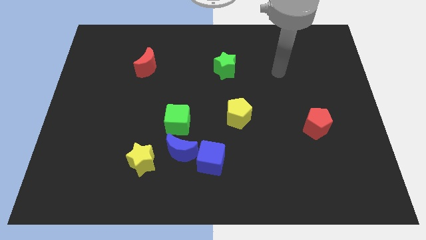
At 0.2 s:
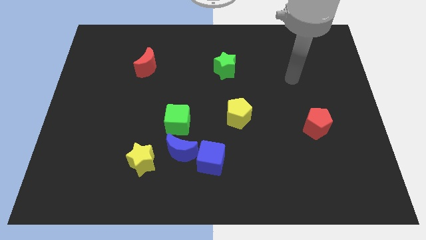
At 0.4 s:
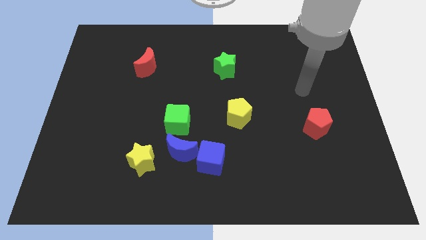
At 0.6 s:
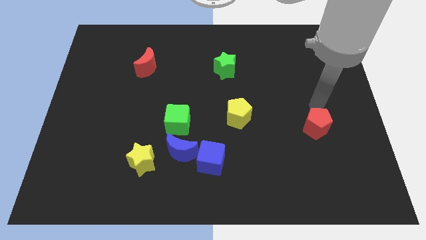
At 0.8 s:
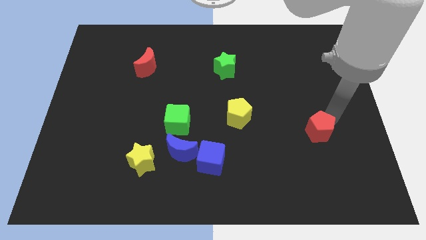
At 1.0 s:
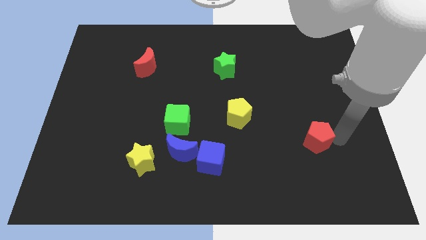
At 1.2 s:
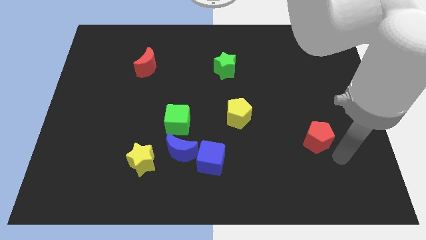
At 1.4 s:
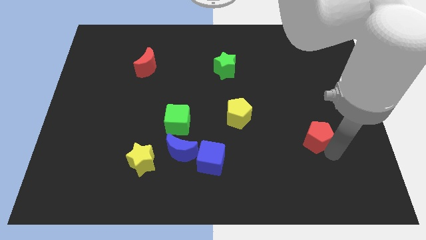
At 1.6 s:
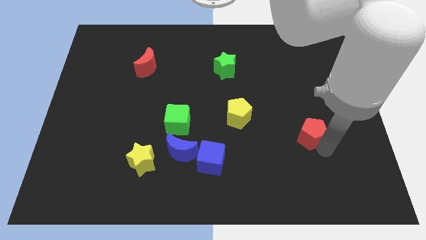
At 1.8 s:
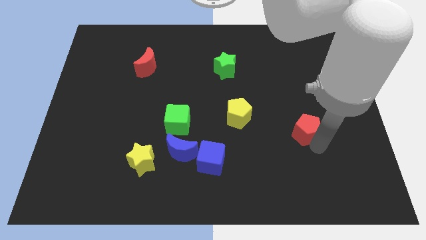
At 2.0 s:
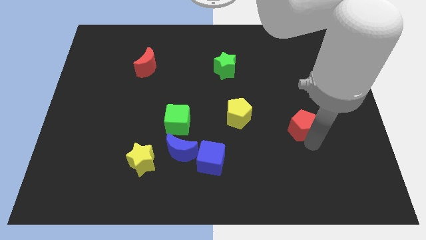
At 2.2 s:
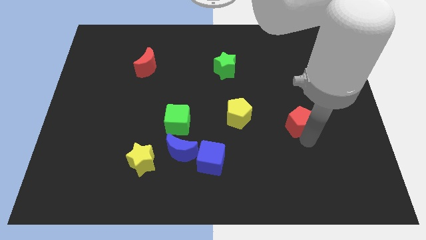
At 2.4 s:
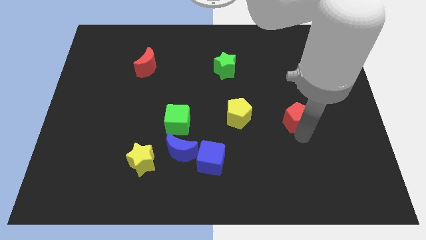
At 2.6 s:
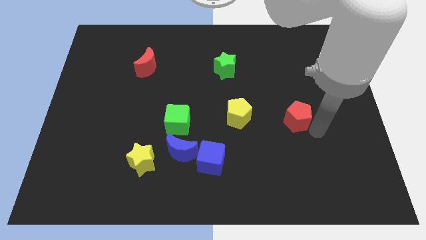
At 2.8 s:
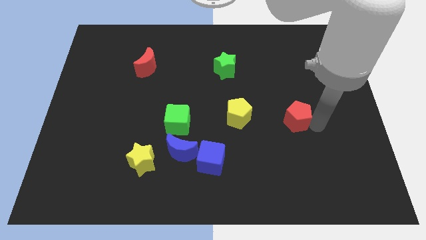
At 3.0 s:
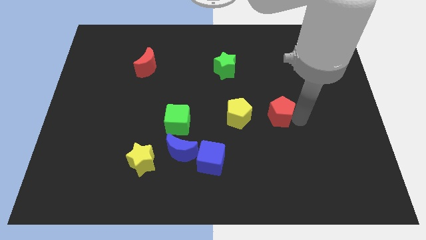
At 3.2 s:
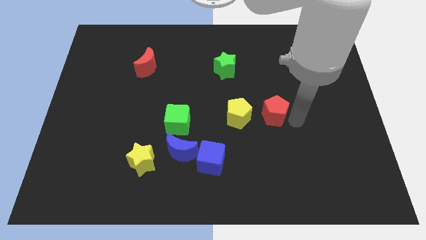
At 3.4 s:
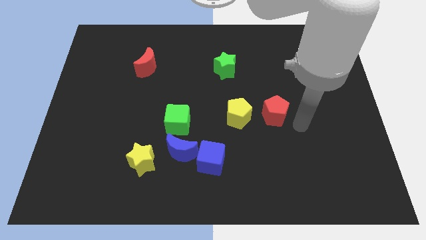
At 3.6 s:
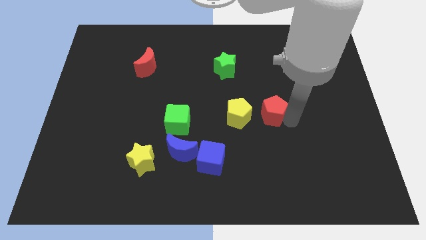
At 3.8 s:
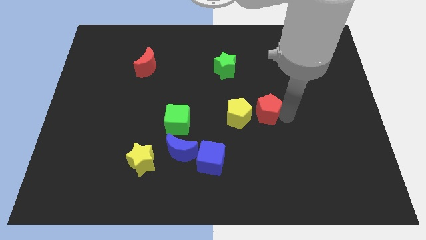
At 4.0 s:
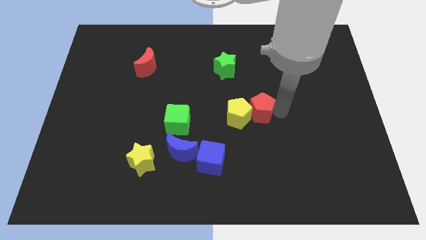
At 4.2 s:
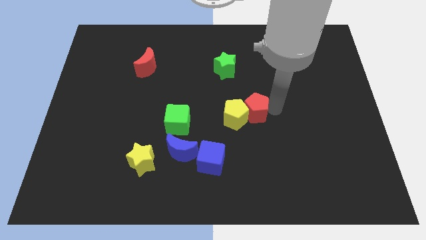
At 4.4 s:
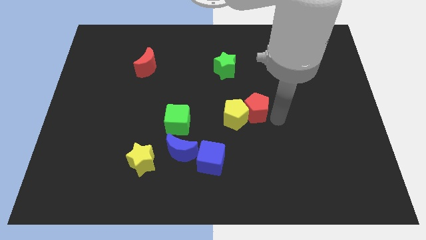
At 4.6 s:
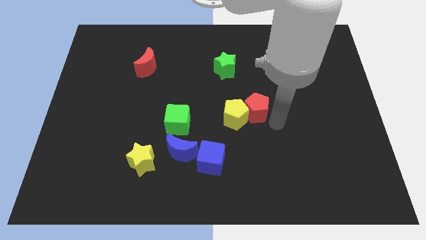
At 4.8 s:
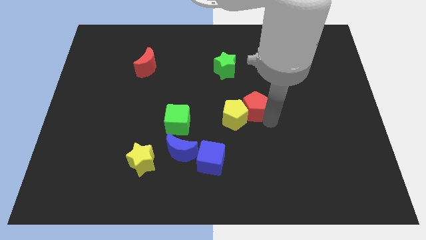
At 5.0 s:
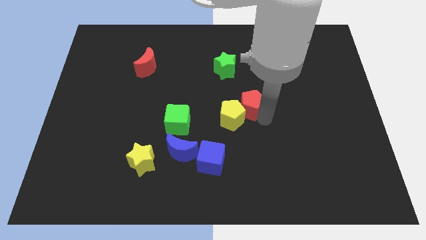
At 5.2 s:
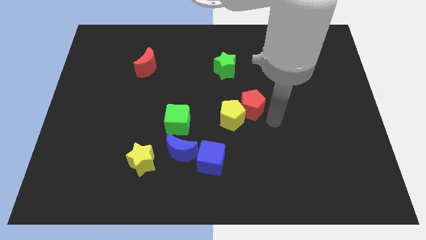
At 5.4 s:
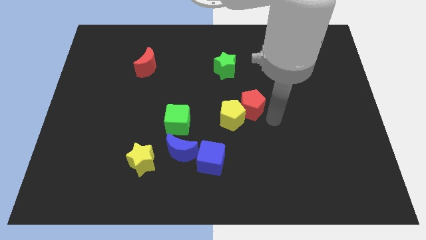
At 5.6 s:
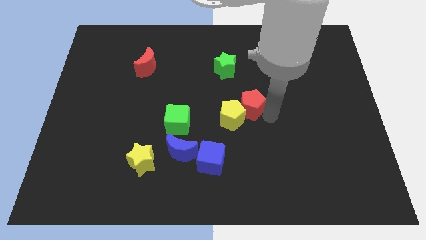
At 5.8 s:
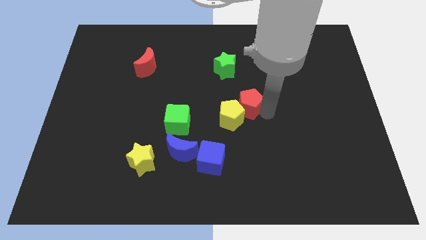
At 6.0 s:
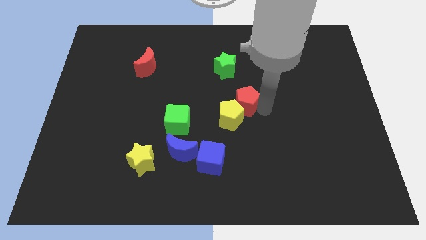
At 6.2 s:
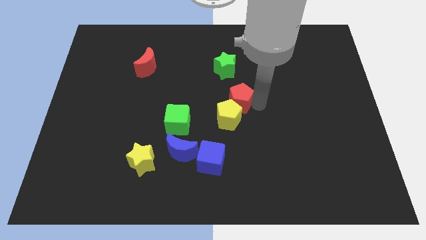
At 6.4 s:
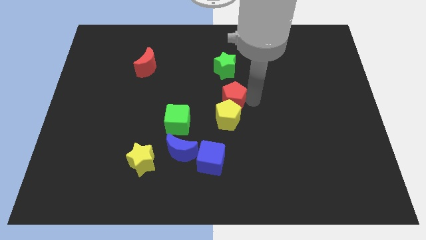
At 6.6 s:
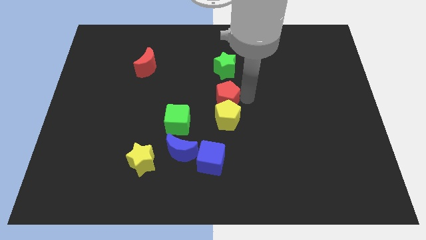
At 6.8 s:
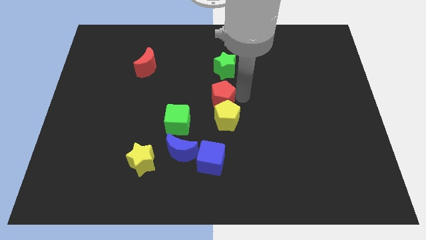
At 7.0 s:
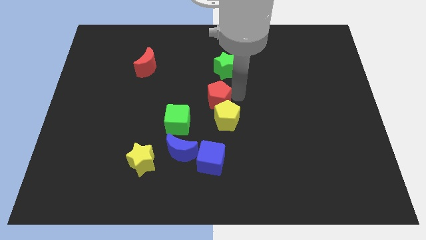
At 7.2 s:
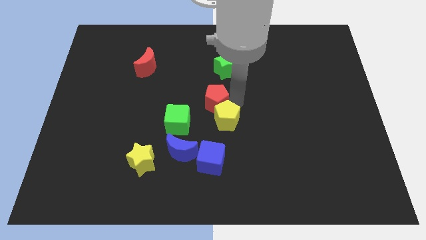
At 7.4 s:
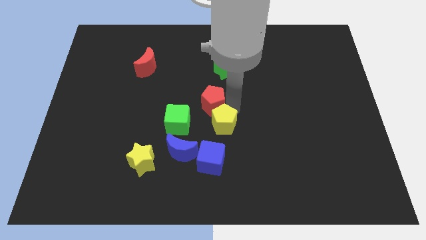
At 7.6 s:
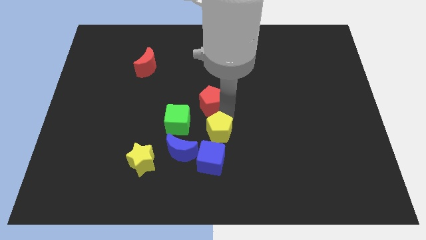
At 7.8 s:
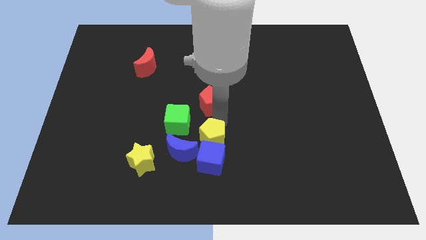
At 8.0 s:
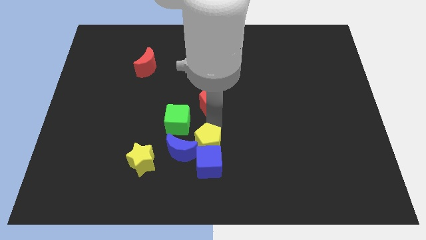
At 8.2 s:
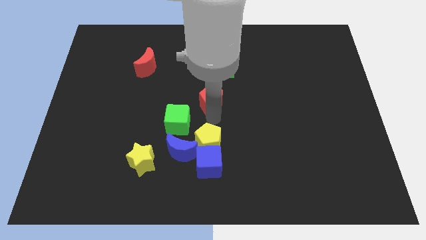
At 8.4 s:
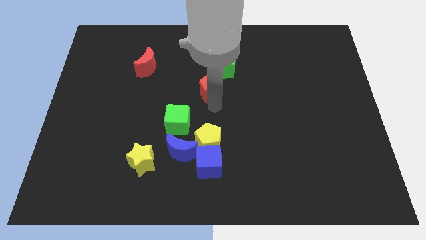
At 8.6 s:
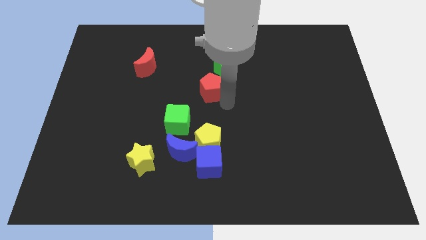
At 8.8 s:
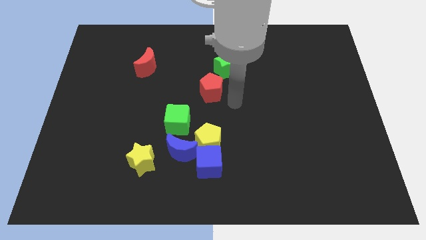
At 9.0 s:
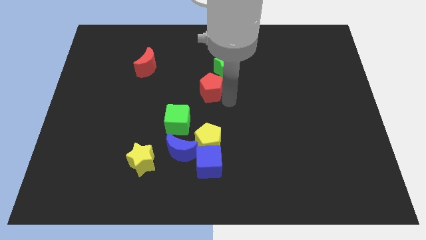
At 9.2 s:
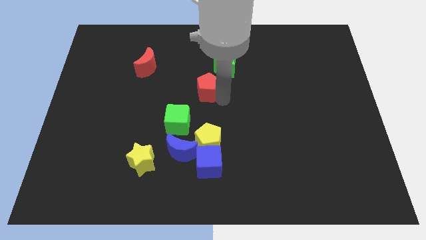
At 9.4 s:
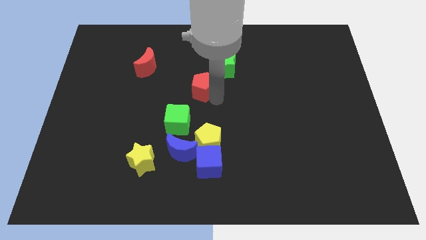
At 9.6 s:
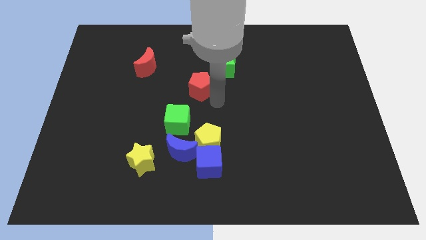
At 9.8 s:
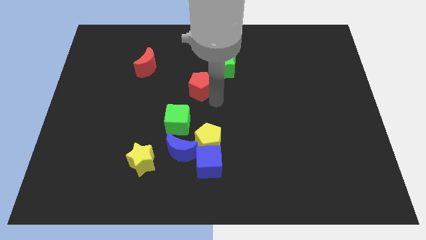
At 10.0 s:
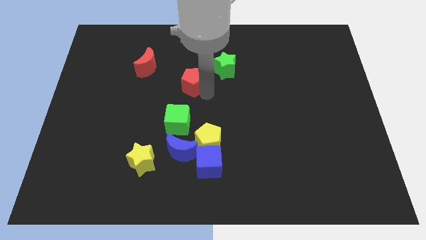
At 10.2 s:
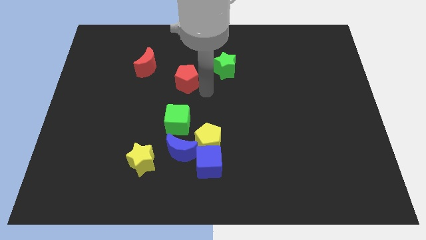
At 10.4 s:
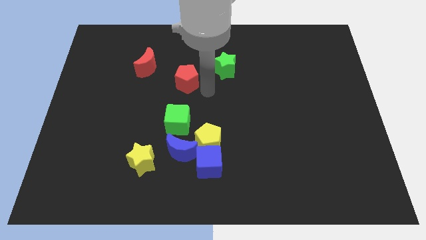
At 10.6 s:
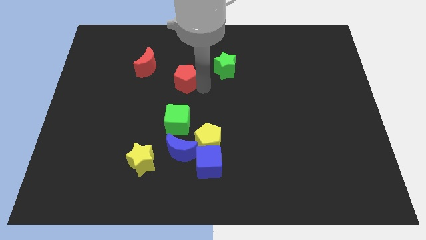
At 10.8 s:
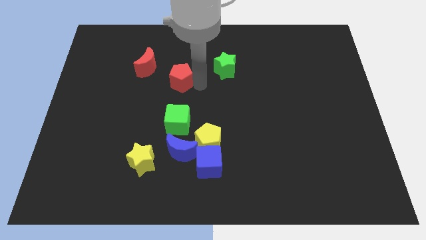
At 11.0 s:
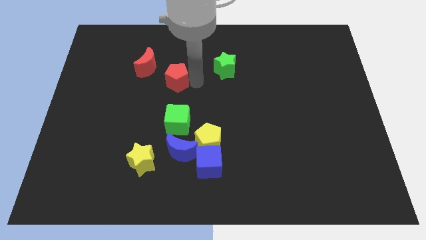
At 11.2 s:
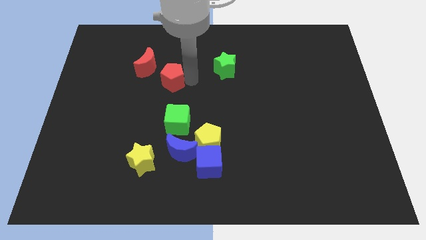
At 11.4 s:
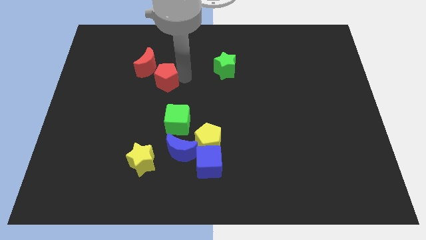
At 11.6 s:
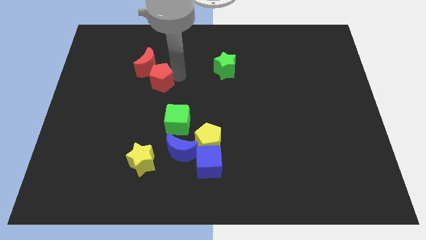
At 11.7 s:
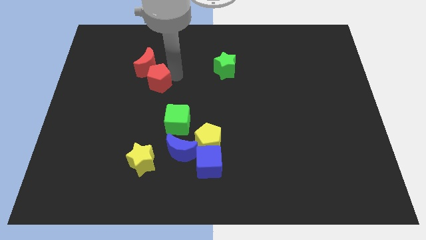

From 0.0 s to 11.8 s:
put the red pentagon close to the red moon

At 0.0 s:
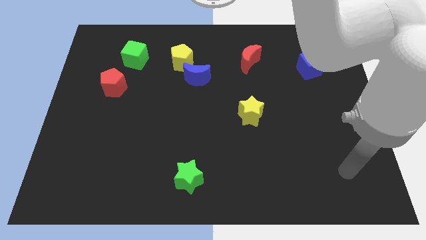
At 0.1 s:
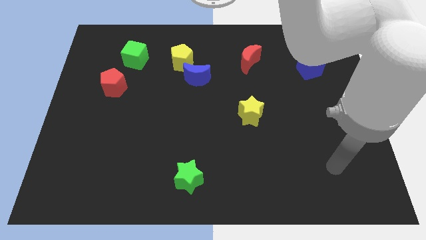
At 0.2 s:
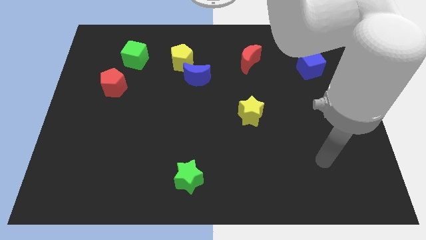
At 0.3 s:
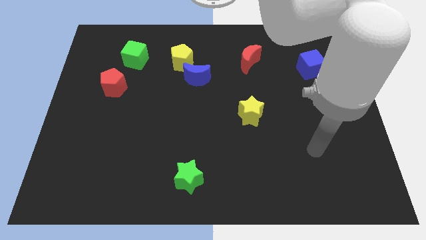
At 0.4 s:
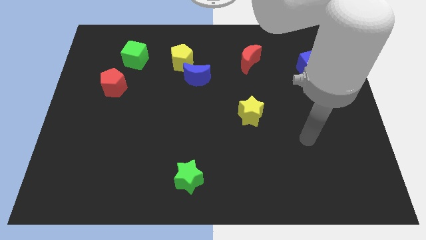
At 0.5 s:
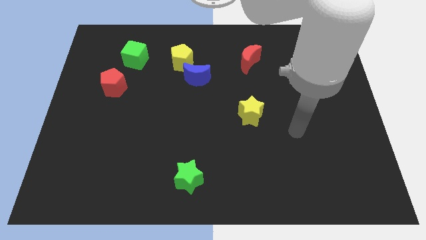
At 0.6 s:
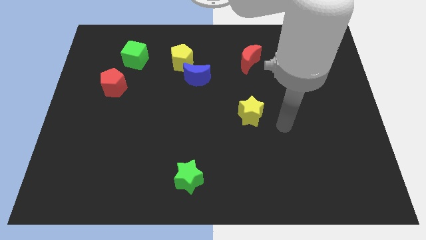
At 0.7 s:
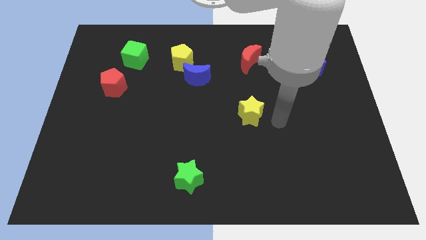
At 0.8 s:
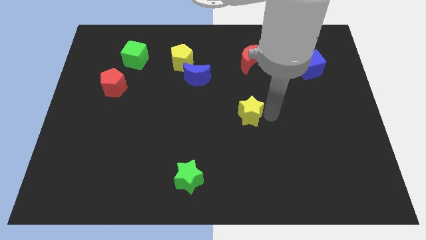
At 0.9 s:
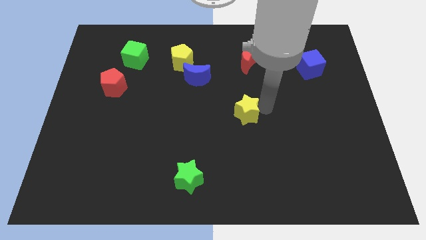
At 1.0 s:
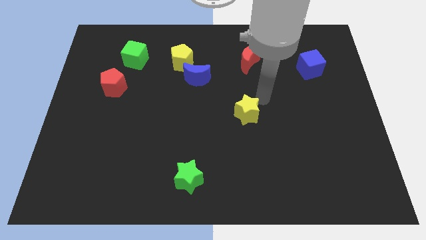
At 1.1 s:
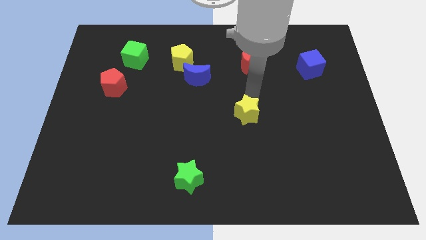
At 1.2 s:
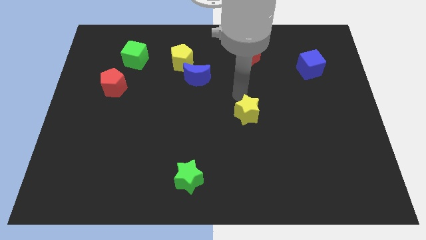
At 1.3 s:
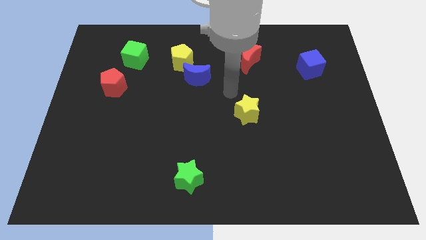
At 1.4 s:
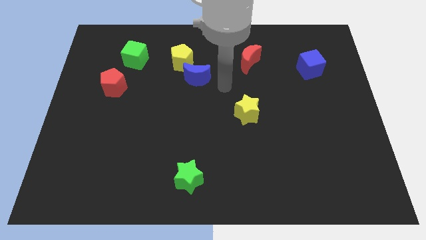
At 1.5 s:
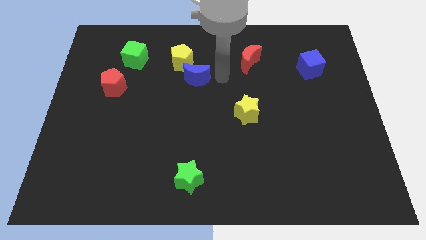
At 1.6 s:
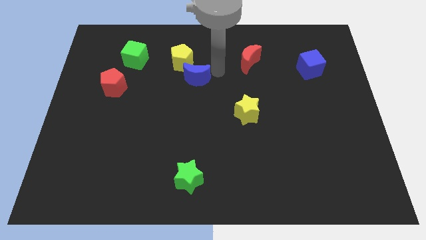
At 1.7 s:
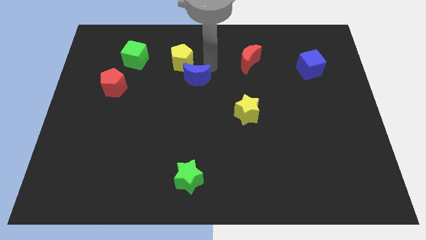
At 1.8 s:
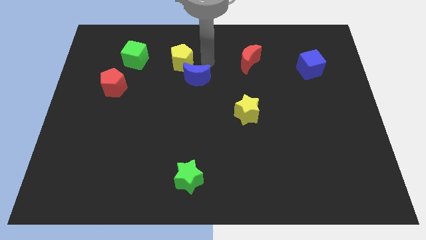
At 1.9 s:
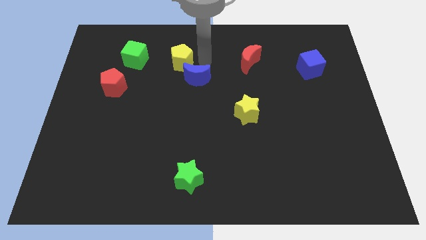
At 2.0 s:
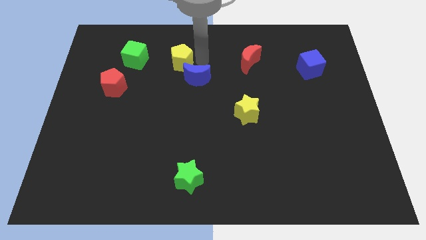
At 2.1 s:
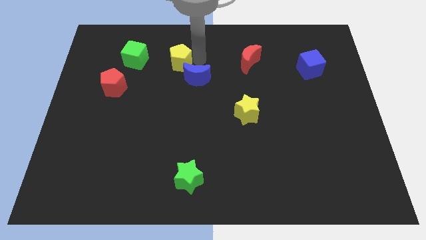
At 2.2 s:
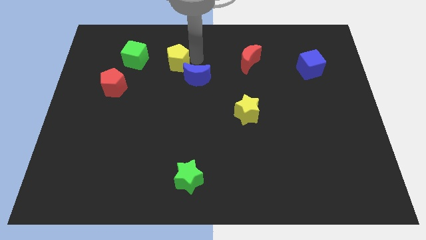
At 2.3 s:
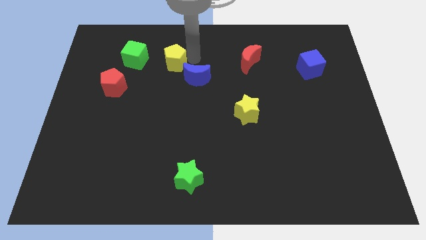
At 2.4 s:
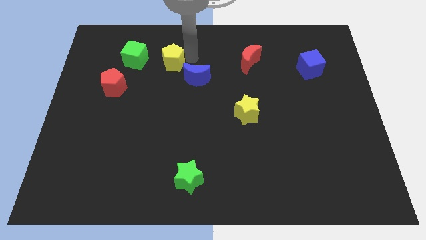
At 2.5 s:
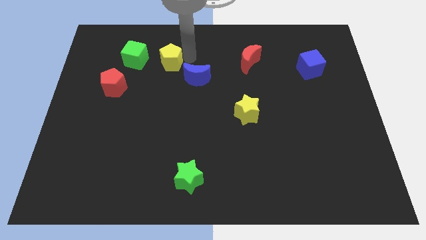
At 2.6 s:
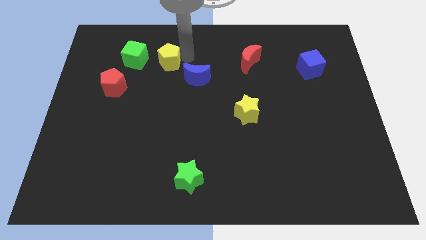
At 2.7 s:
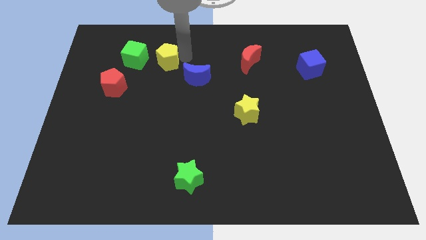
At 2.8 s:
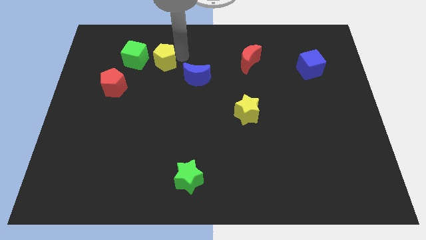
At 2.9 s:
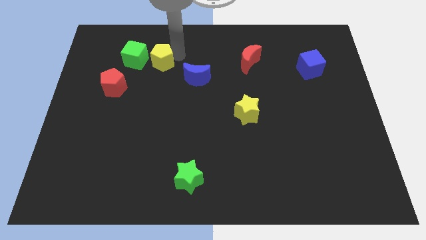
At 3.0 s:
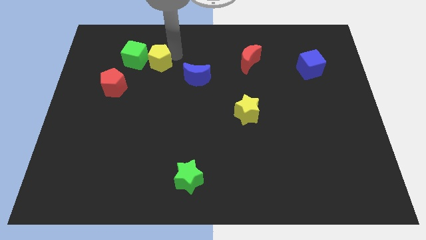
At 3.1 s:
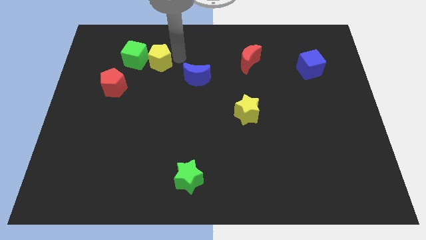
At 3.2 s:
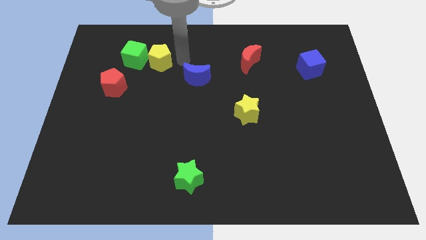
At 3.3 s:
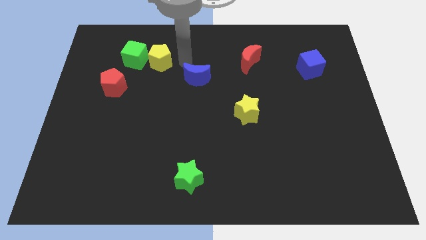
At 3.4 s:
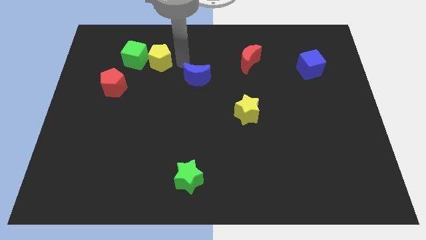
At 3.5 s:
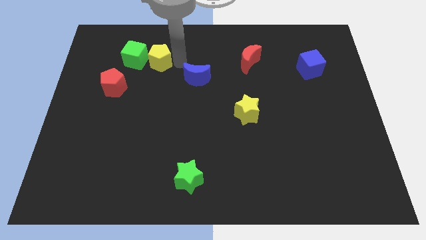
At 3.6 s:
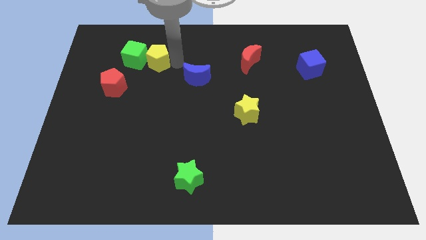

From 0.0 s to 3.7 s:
push the yellow pentagon towards the green cube
